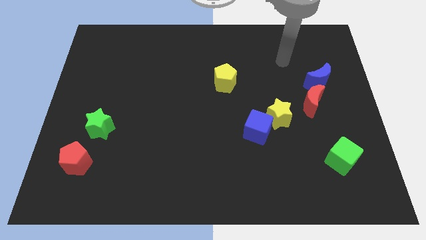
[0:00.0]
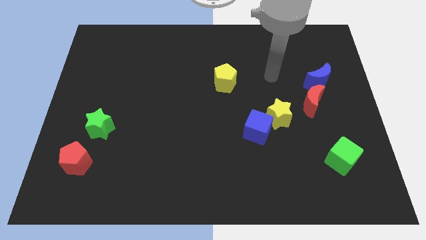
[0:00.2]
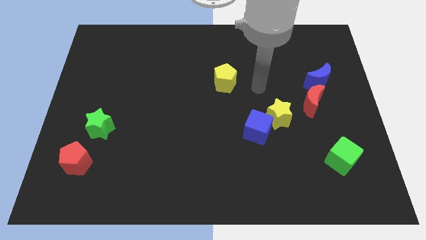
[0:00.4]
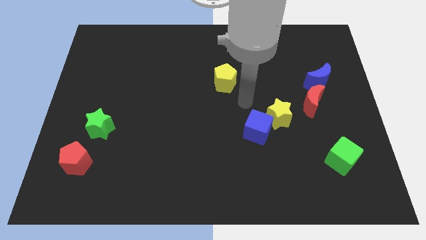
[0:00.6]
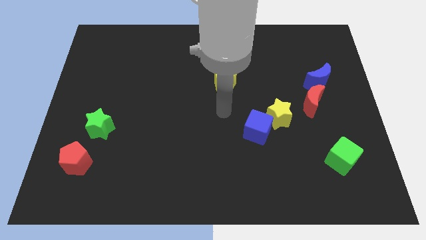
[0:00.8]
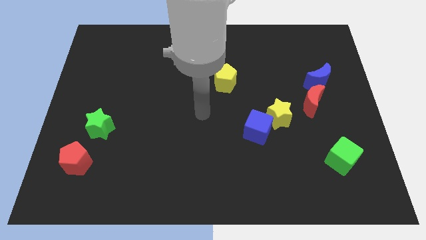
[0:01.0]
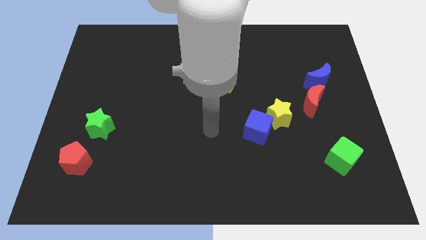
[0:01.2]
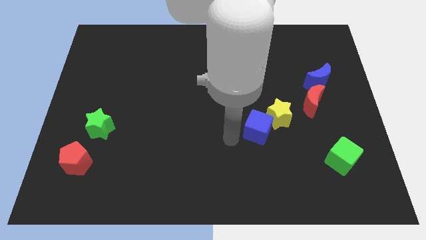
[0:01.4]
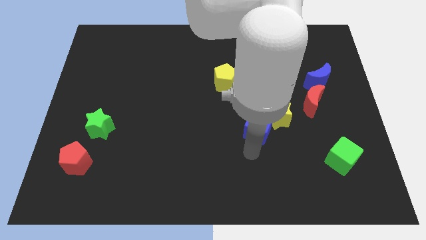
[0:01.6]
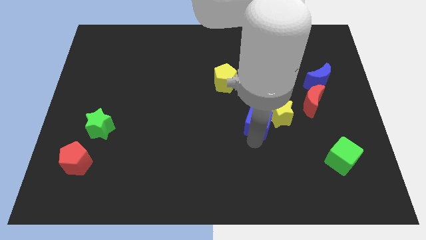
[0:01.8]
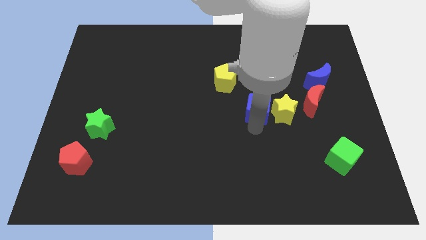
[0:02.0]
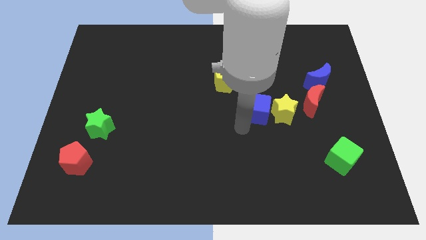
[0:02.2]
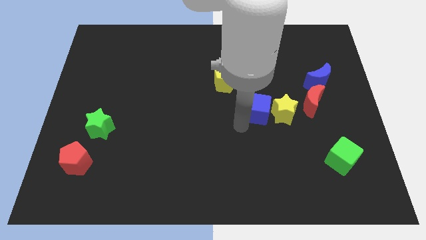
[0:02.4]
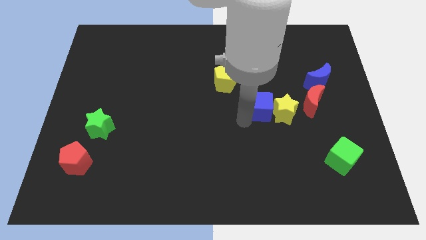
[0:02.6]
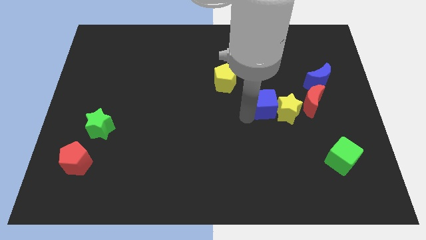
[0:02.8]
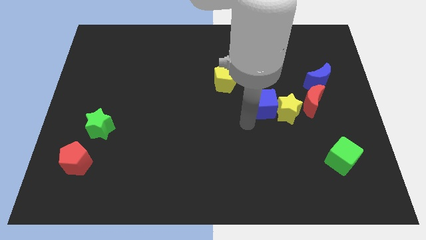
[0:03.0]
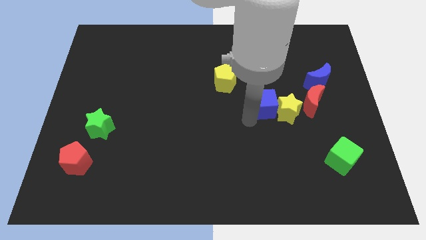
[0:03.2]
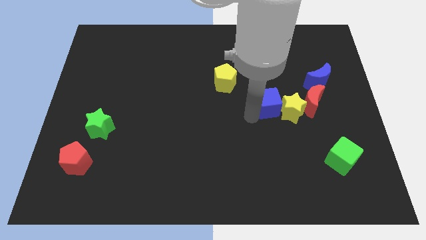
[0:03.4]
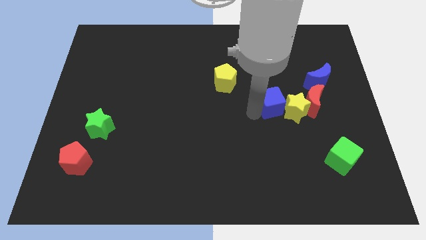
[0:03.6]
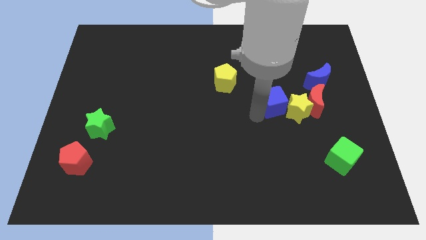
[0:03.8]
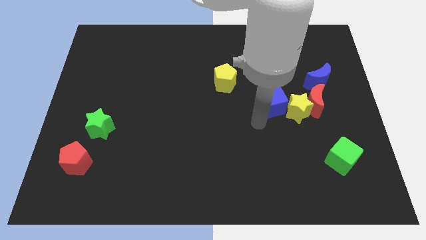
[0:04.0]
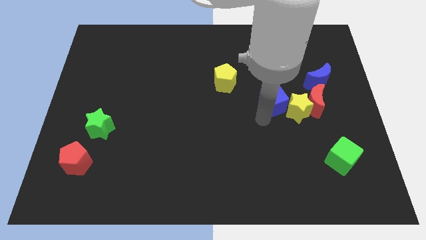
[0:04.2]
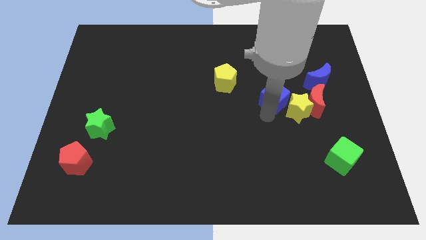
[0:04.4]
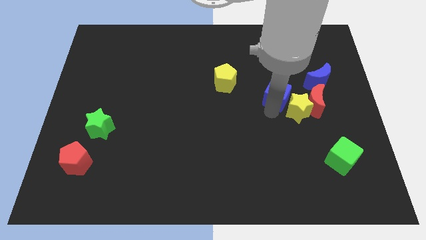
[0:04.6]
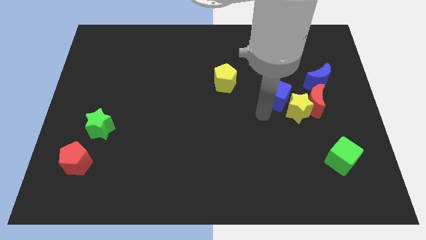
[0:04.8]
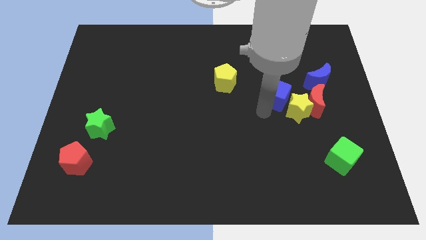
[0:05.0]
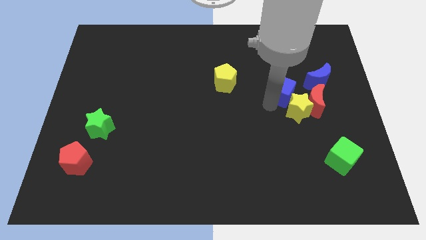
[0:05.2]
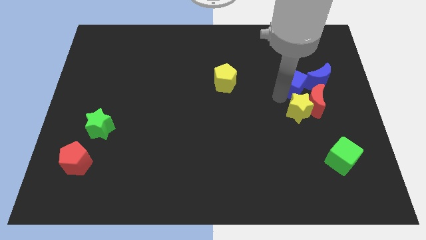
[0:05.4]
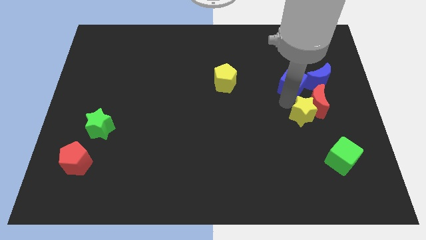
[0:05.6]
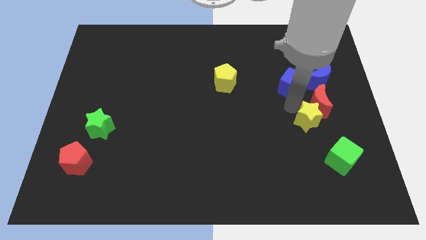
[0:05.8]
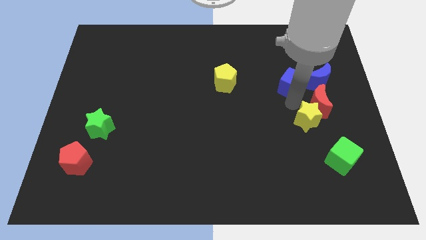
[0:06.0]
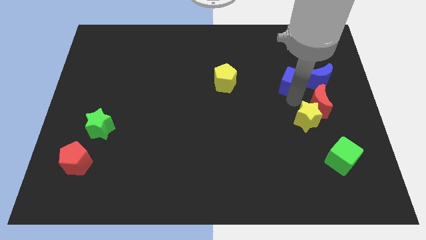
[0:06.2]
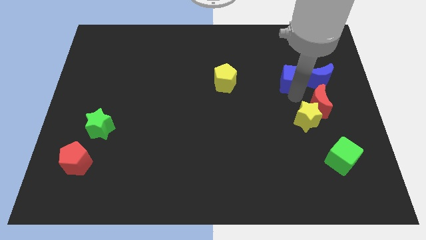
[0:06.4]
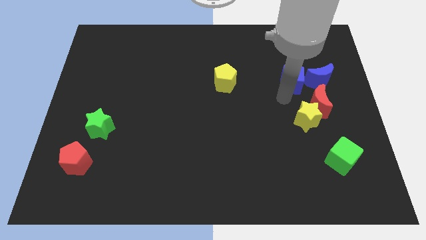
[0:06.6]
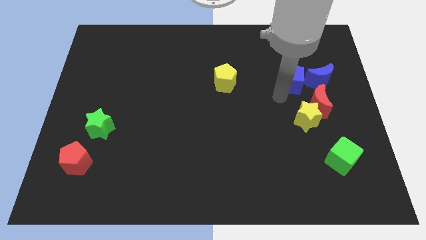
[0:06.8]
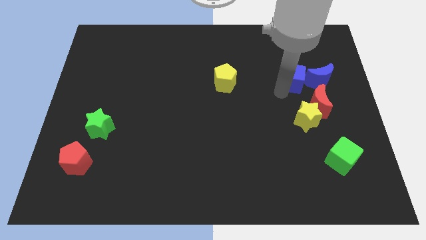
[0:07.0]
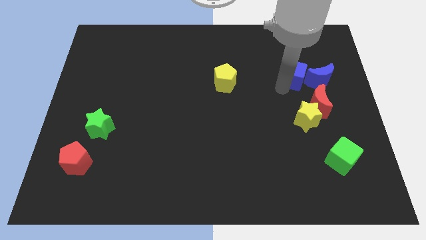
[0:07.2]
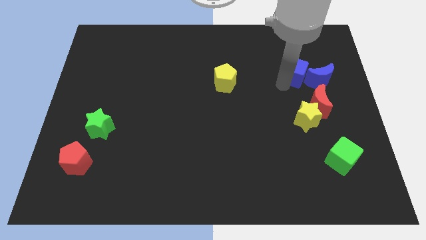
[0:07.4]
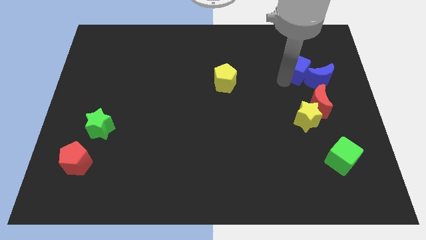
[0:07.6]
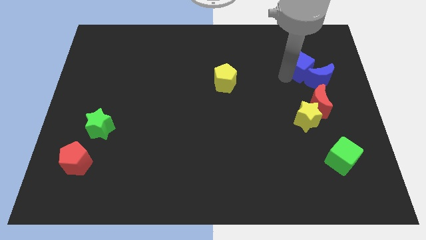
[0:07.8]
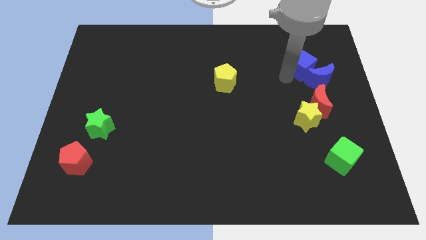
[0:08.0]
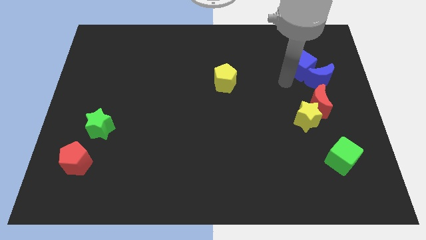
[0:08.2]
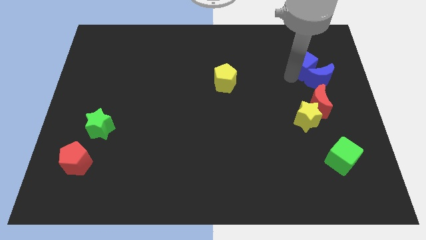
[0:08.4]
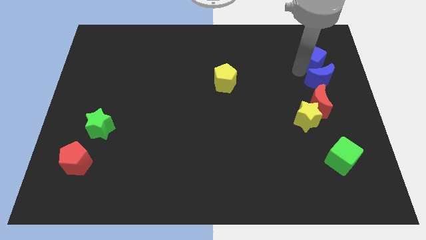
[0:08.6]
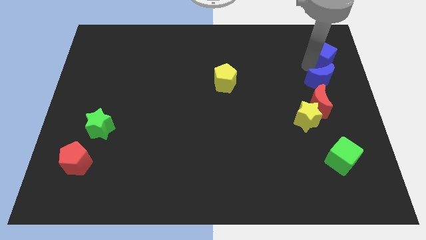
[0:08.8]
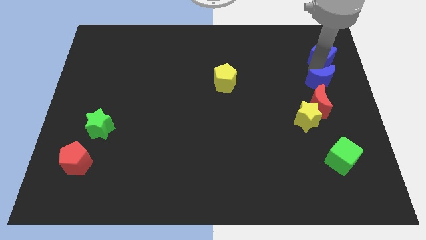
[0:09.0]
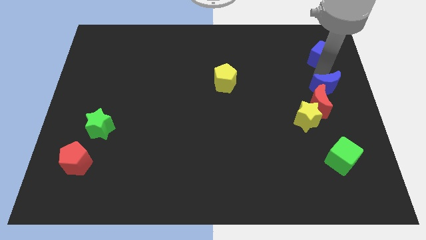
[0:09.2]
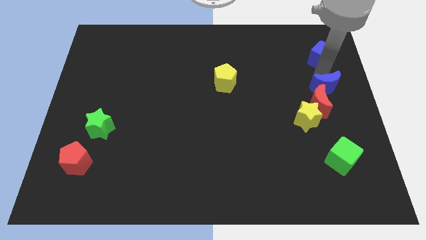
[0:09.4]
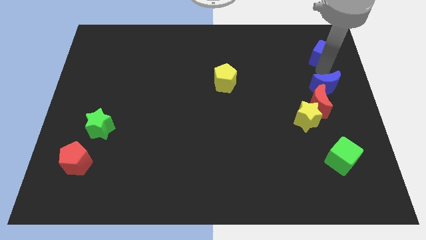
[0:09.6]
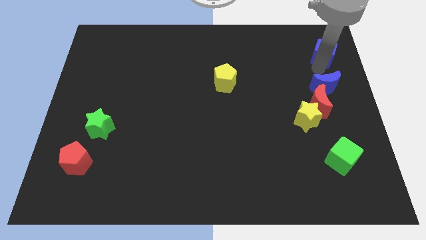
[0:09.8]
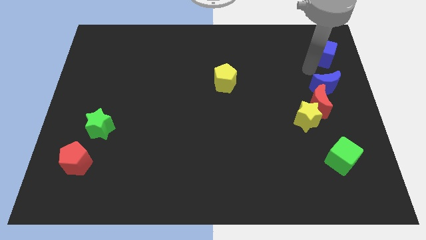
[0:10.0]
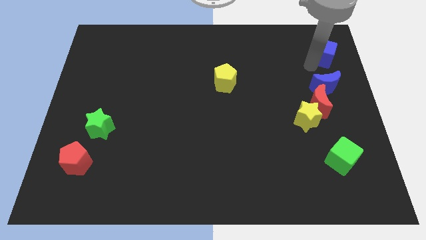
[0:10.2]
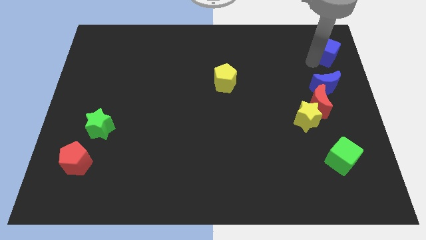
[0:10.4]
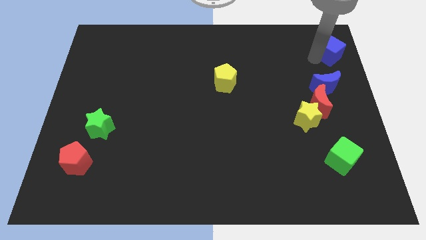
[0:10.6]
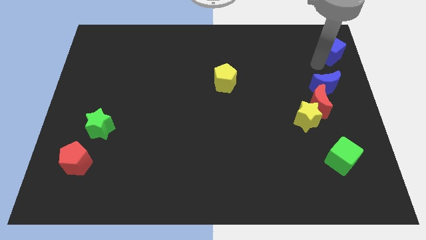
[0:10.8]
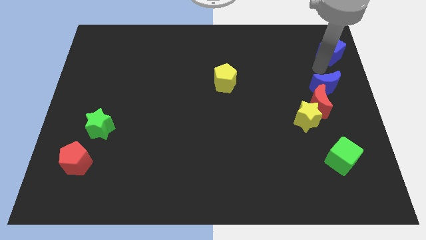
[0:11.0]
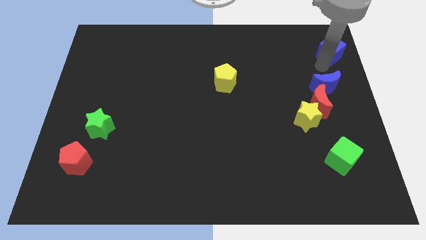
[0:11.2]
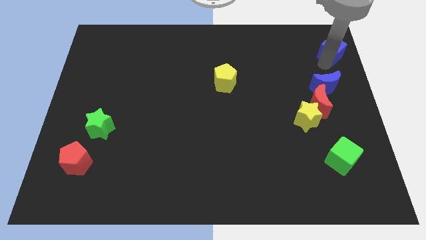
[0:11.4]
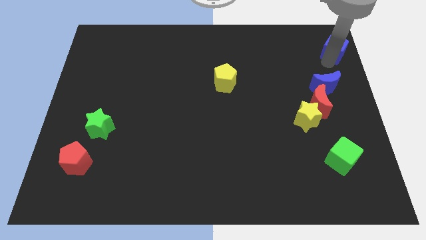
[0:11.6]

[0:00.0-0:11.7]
push the blue cube to the top right
